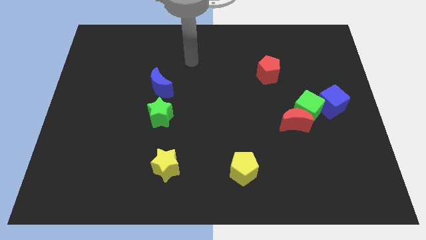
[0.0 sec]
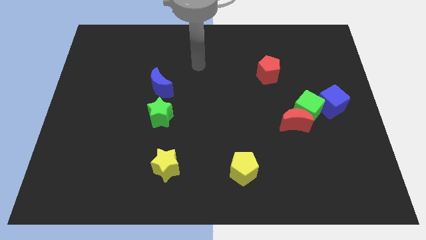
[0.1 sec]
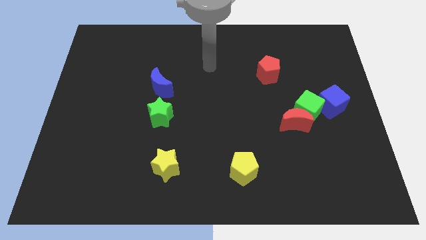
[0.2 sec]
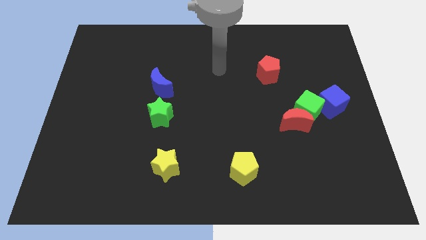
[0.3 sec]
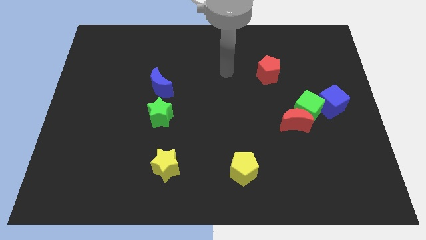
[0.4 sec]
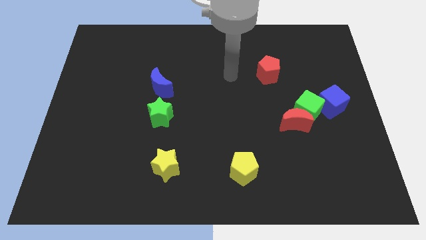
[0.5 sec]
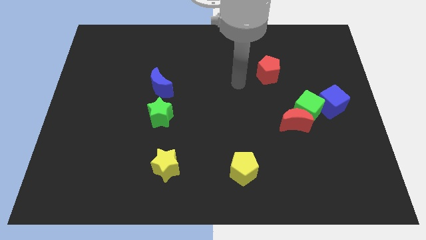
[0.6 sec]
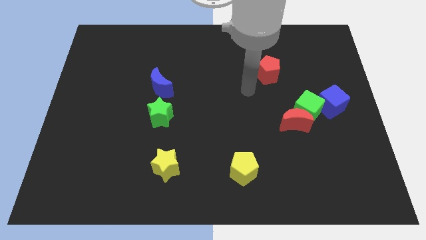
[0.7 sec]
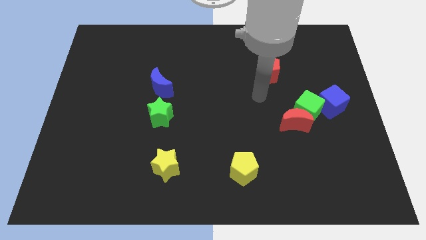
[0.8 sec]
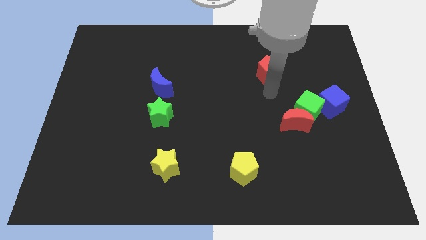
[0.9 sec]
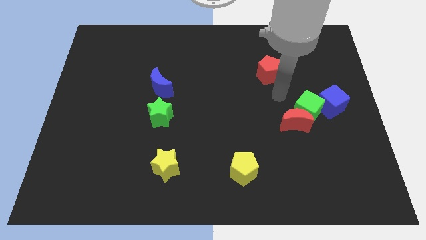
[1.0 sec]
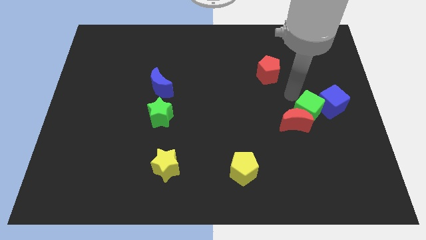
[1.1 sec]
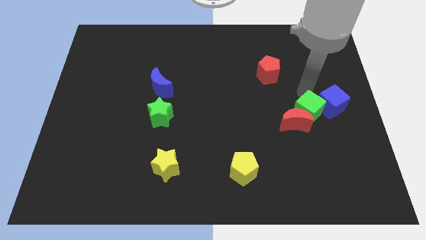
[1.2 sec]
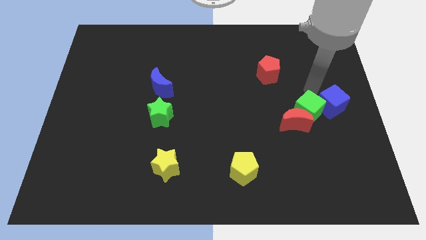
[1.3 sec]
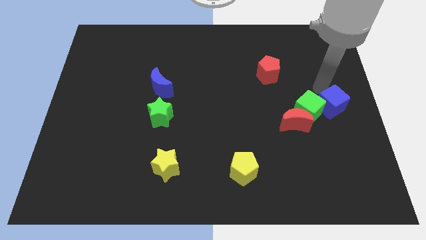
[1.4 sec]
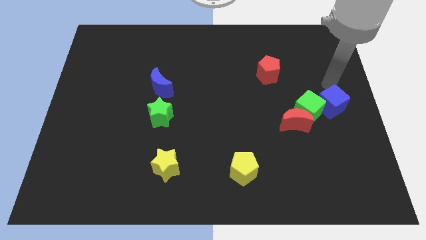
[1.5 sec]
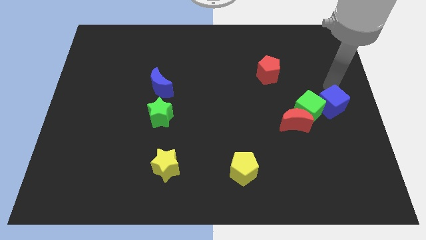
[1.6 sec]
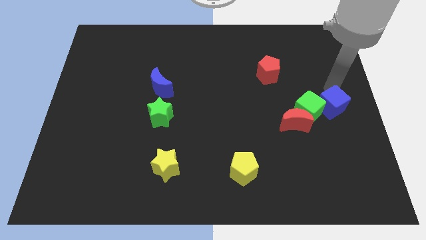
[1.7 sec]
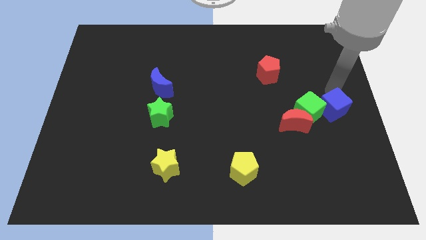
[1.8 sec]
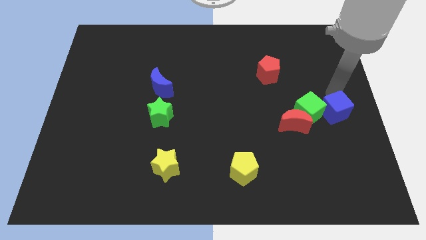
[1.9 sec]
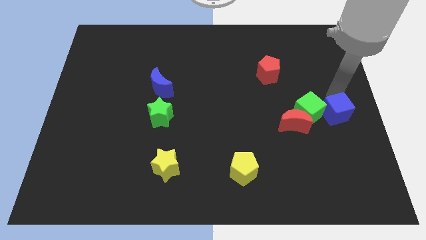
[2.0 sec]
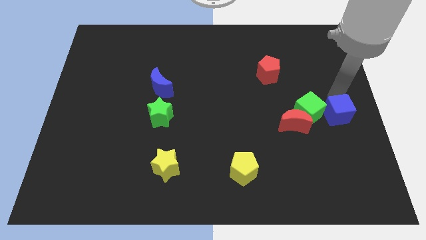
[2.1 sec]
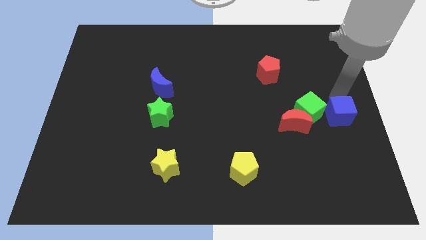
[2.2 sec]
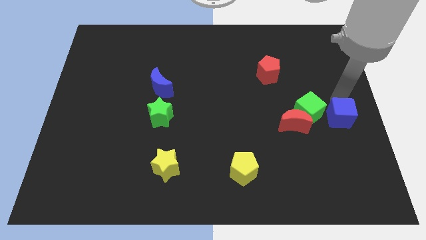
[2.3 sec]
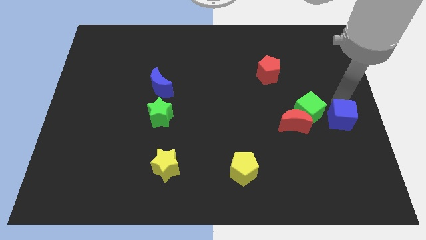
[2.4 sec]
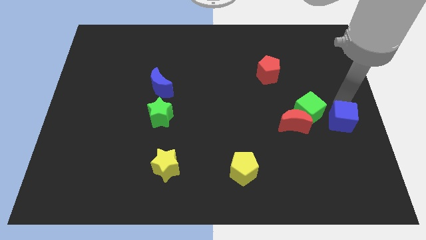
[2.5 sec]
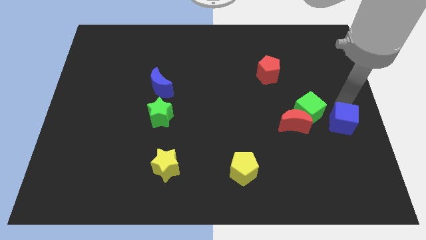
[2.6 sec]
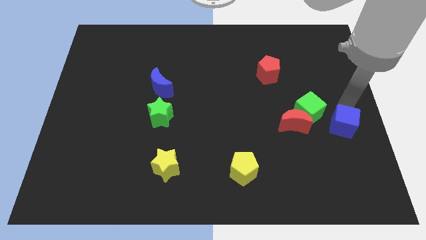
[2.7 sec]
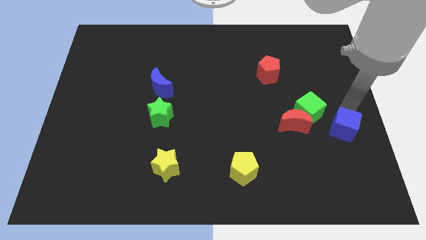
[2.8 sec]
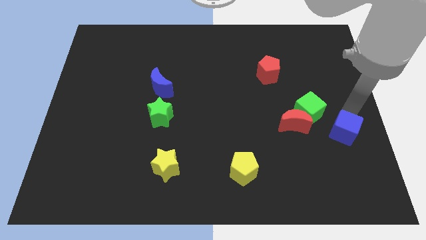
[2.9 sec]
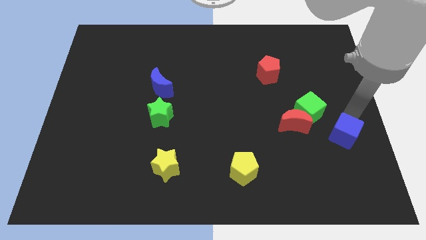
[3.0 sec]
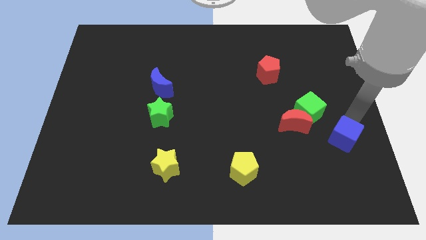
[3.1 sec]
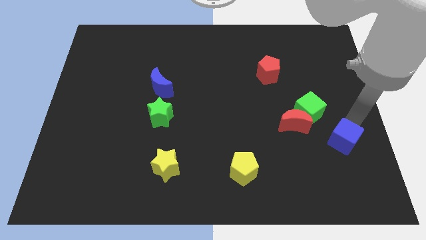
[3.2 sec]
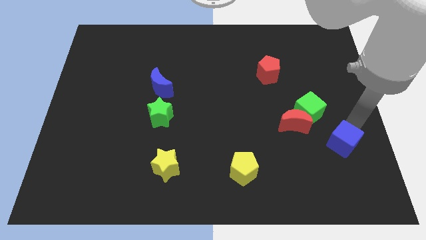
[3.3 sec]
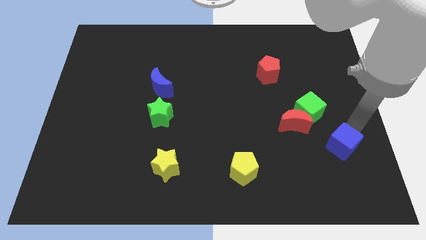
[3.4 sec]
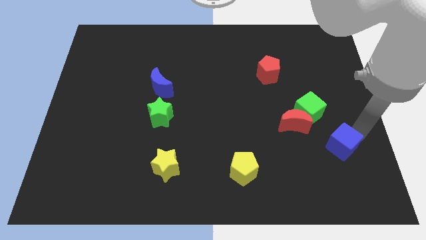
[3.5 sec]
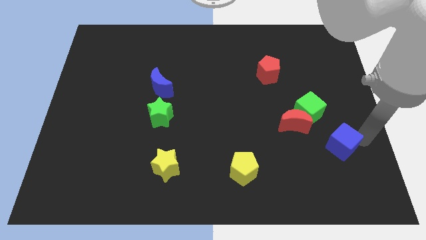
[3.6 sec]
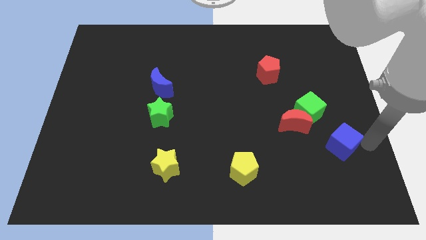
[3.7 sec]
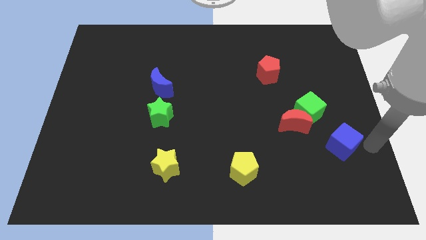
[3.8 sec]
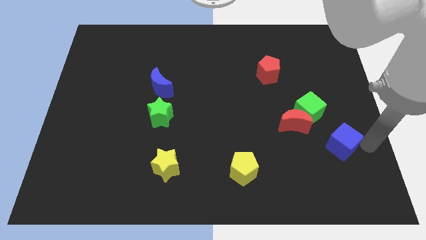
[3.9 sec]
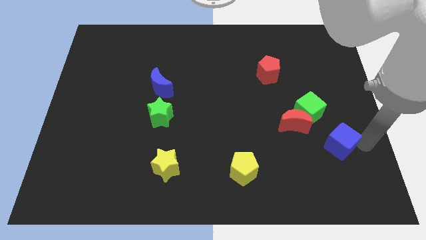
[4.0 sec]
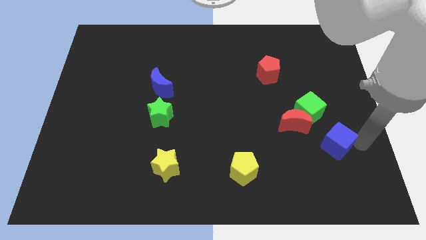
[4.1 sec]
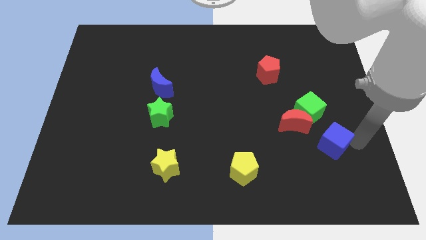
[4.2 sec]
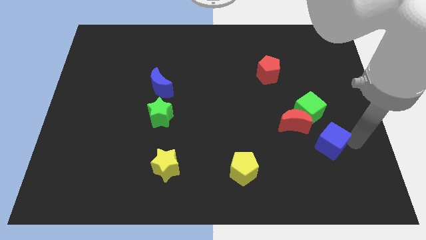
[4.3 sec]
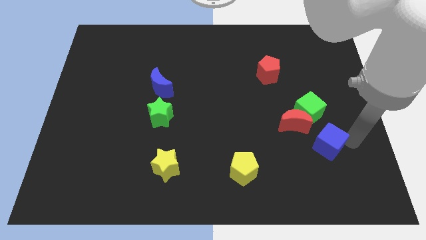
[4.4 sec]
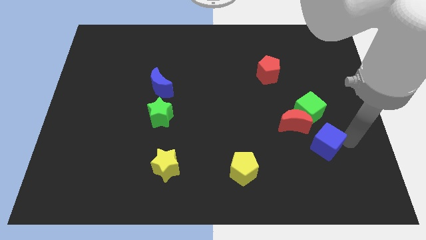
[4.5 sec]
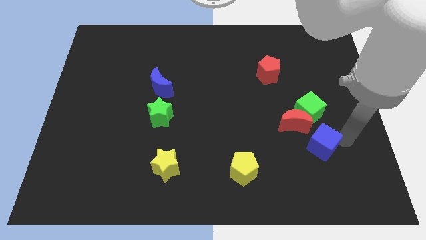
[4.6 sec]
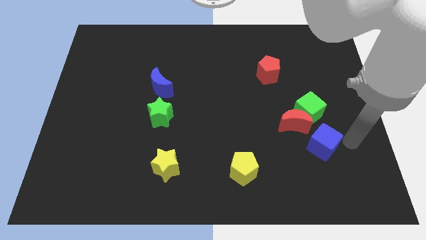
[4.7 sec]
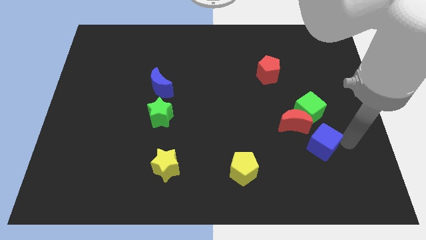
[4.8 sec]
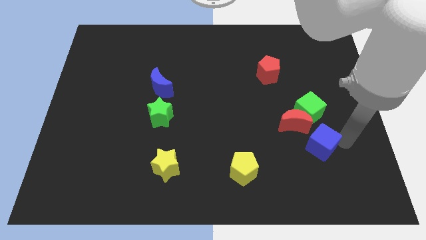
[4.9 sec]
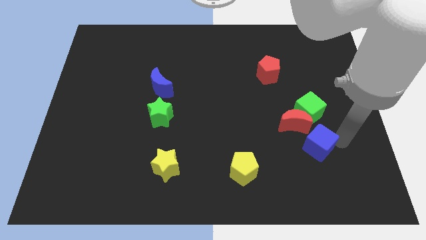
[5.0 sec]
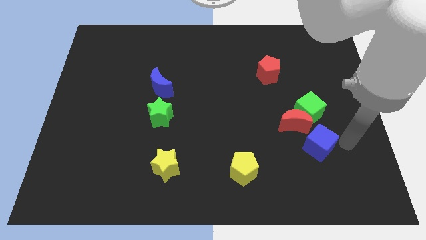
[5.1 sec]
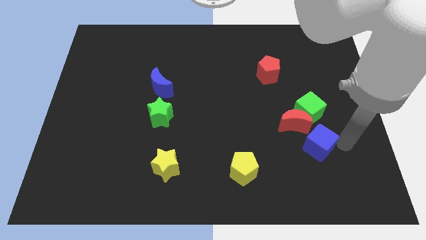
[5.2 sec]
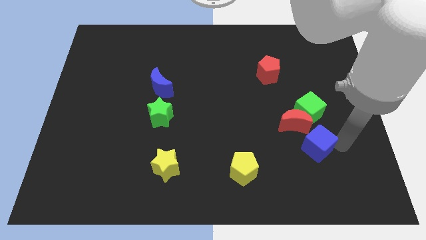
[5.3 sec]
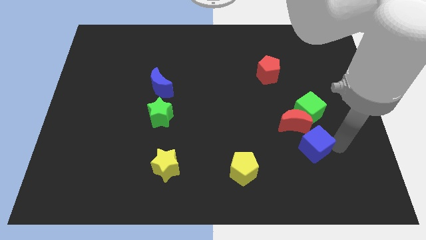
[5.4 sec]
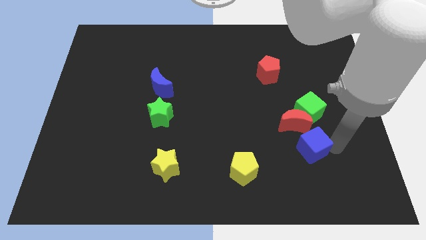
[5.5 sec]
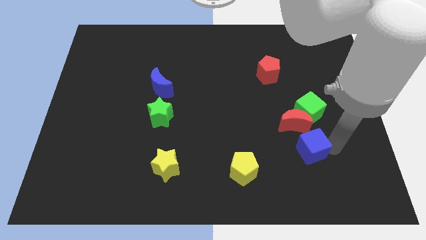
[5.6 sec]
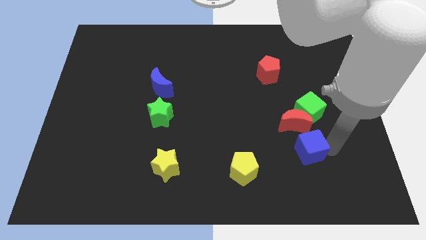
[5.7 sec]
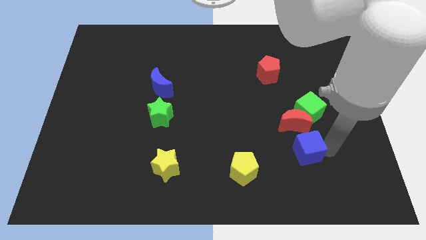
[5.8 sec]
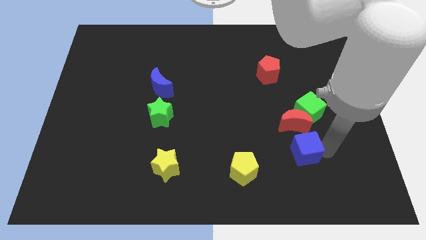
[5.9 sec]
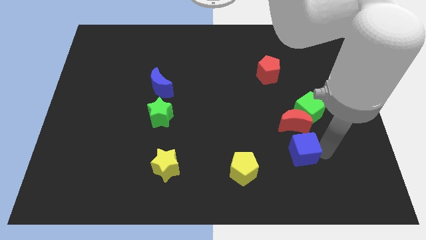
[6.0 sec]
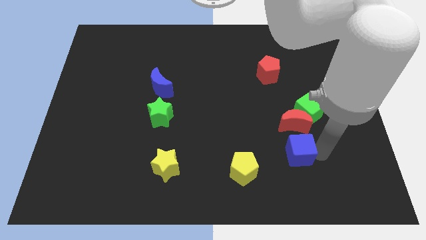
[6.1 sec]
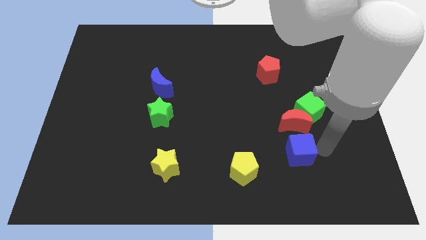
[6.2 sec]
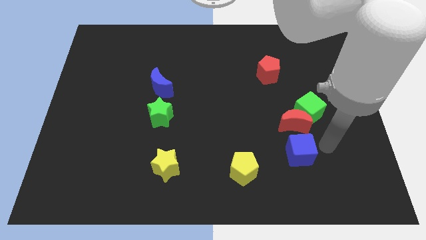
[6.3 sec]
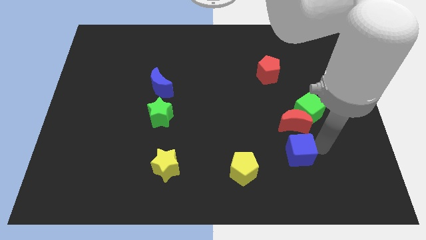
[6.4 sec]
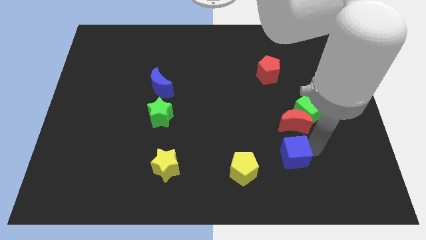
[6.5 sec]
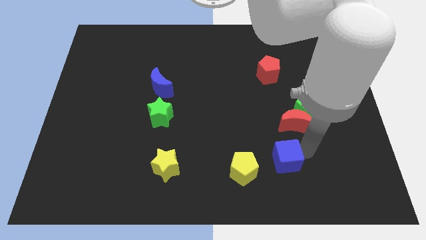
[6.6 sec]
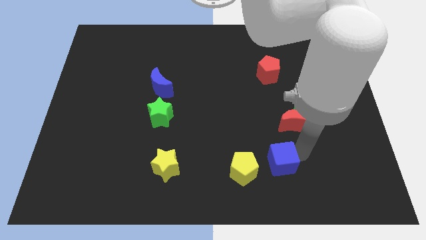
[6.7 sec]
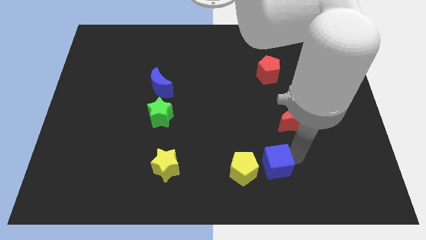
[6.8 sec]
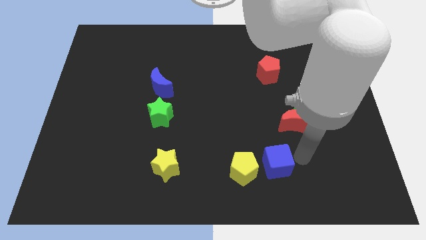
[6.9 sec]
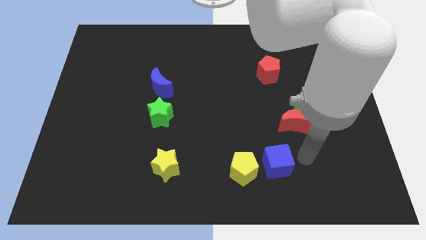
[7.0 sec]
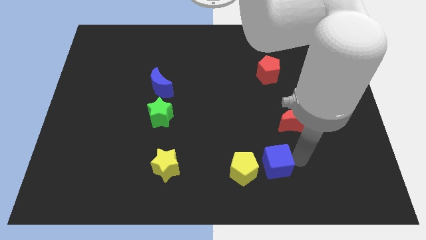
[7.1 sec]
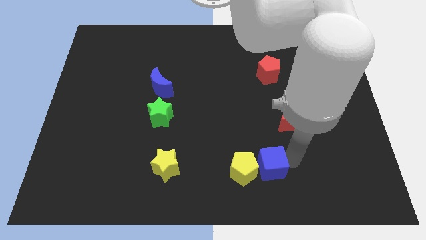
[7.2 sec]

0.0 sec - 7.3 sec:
slide the blue cube next to the yellow pentagon

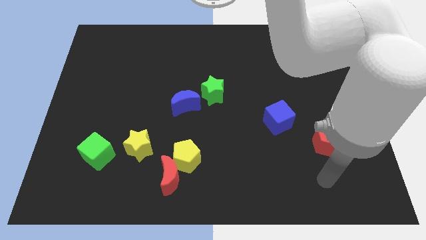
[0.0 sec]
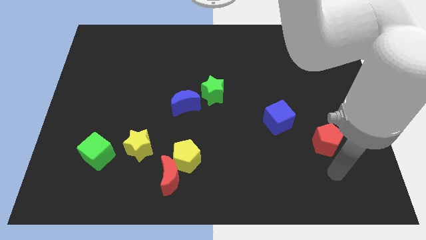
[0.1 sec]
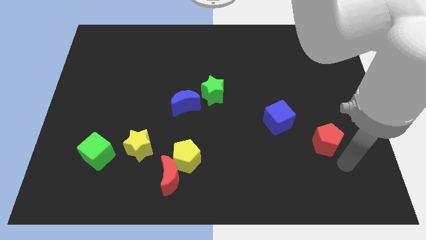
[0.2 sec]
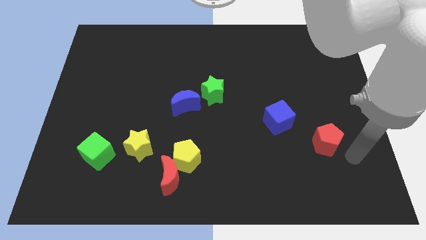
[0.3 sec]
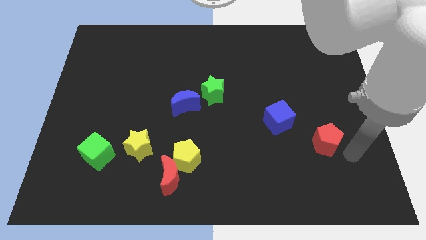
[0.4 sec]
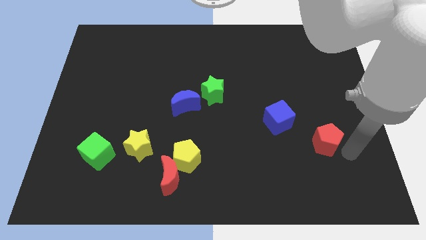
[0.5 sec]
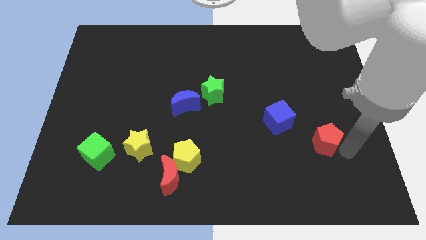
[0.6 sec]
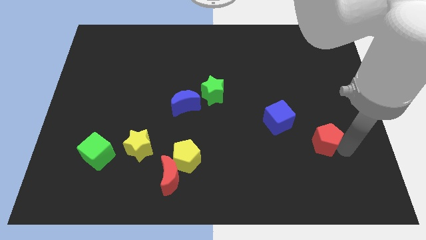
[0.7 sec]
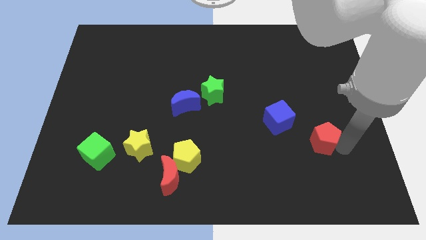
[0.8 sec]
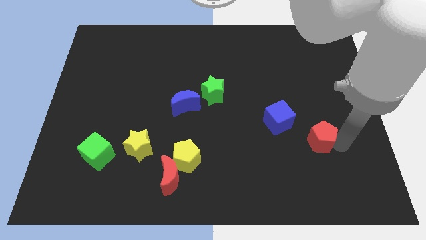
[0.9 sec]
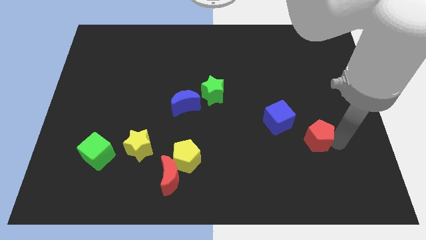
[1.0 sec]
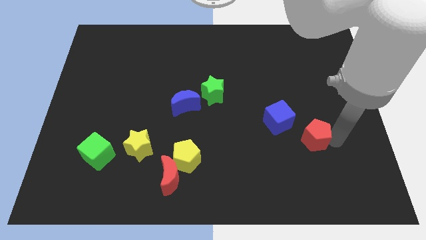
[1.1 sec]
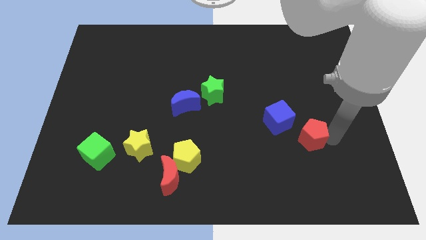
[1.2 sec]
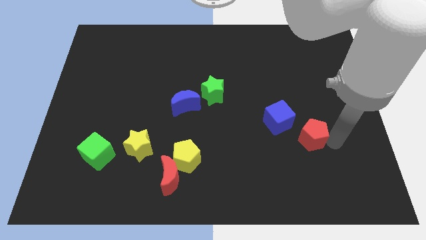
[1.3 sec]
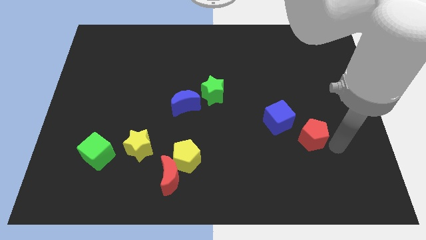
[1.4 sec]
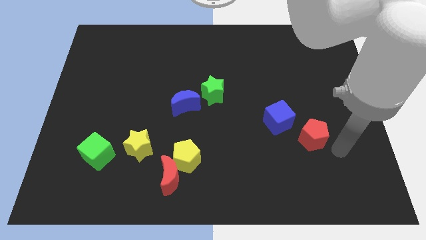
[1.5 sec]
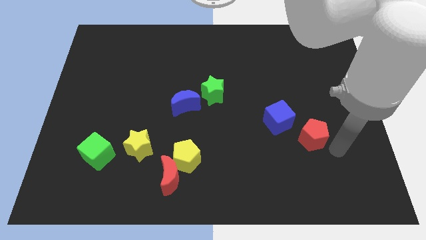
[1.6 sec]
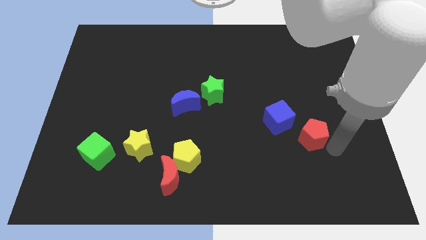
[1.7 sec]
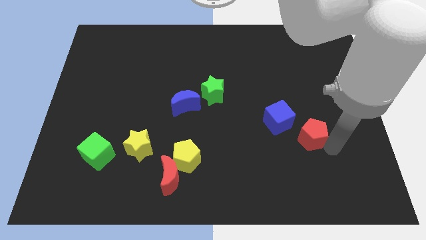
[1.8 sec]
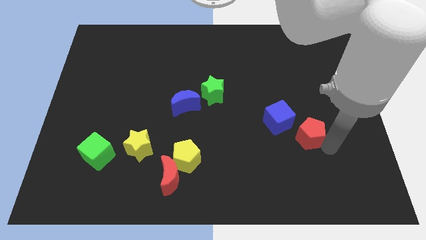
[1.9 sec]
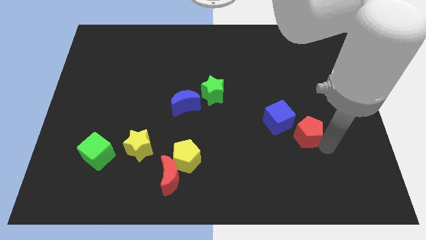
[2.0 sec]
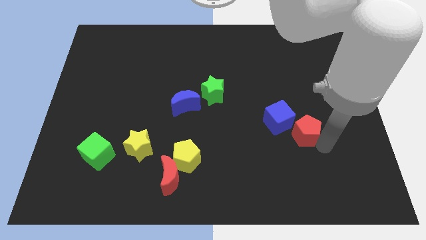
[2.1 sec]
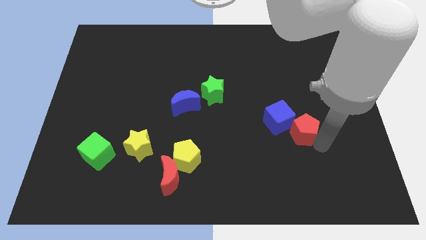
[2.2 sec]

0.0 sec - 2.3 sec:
put the red pentagon towards the blue cube
